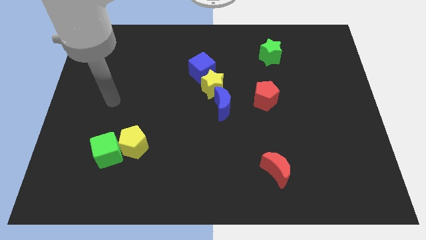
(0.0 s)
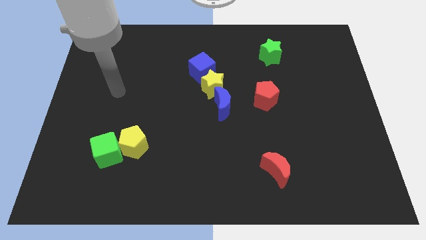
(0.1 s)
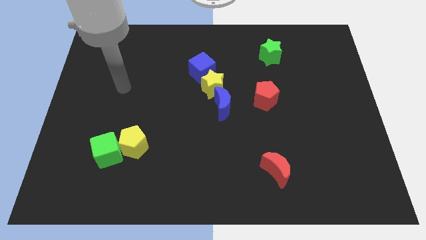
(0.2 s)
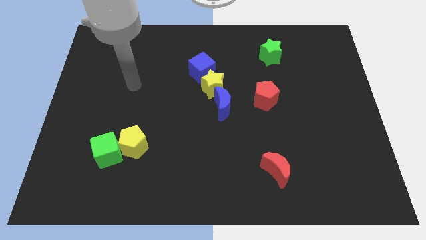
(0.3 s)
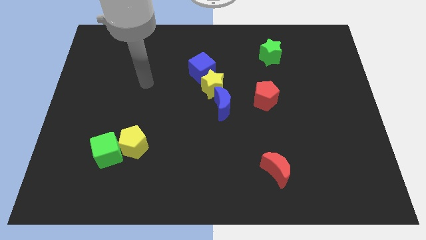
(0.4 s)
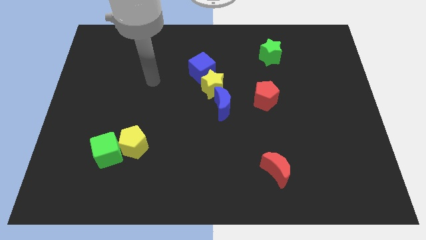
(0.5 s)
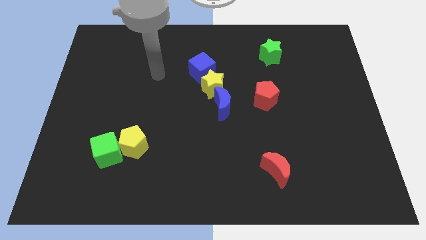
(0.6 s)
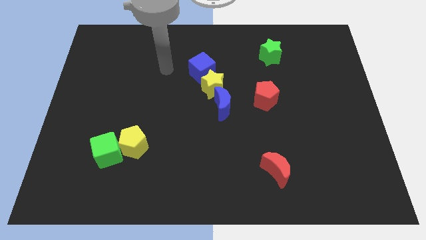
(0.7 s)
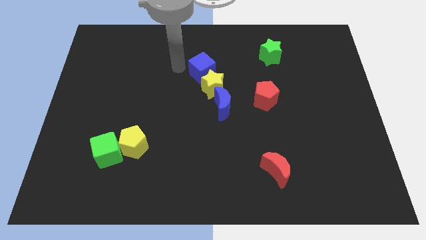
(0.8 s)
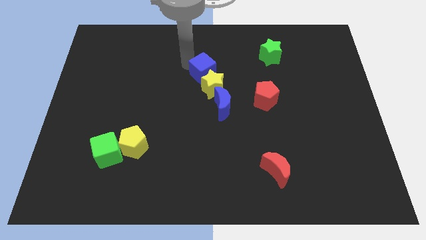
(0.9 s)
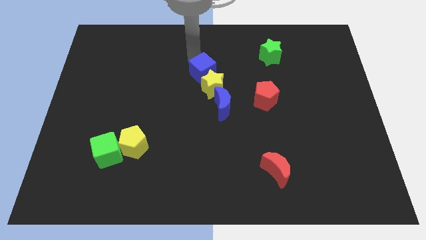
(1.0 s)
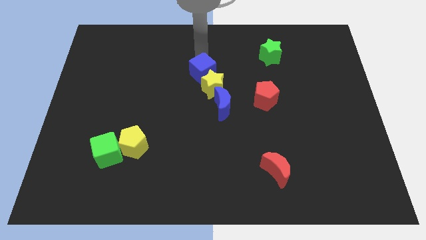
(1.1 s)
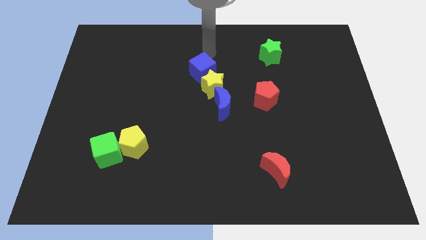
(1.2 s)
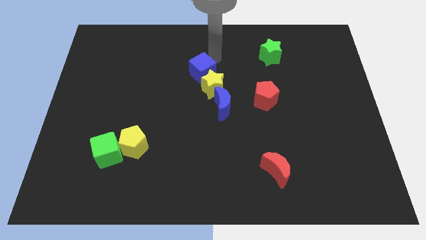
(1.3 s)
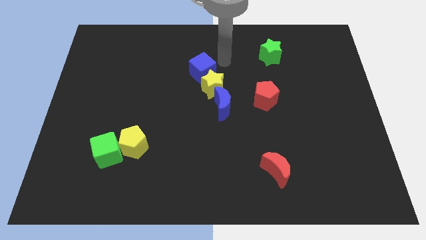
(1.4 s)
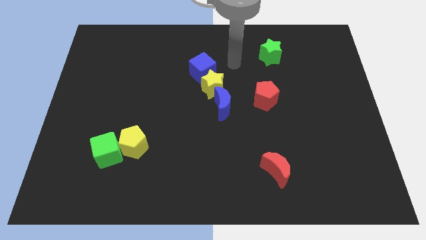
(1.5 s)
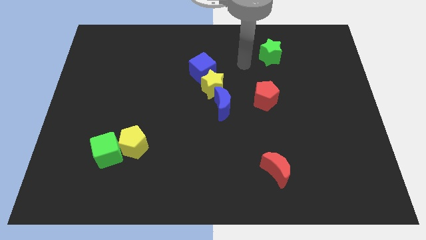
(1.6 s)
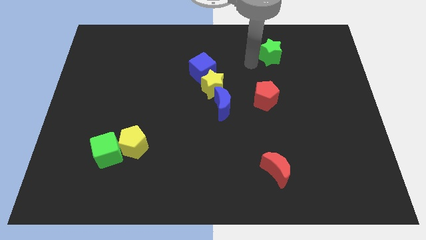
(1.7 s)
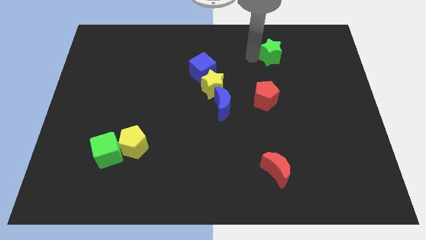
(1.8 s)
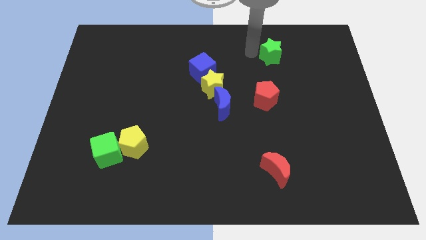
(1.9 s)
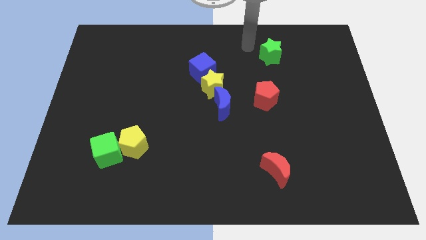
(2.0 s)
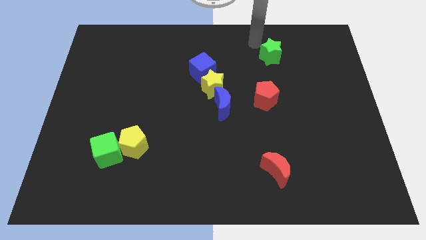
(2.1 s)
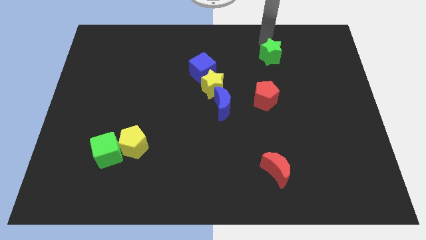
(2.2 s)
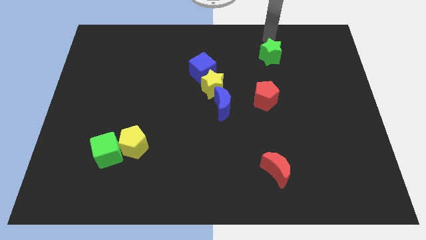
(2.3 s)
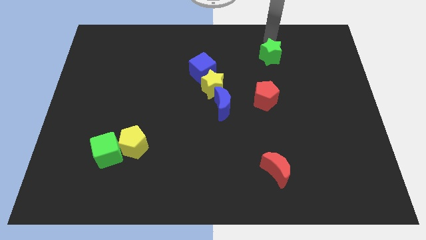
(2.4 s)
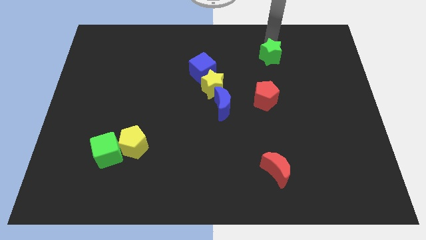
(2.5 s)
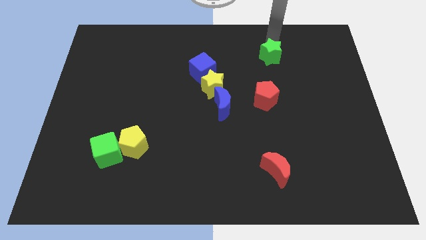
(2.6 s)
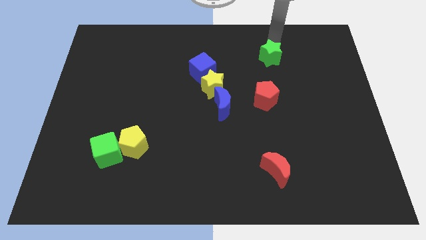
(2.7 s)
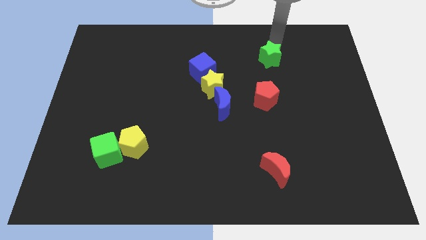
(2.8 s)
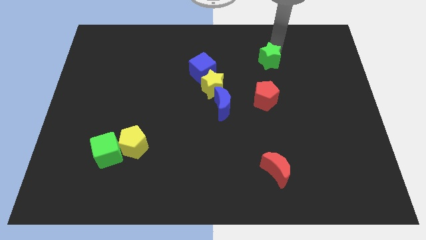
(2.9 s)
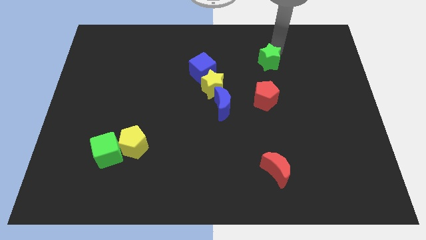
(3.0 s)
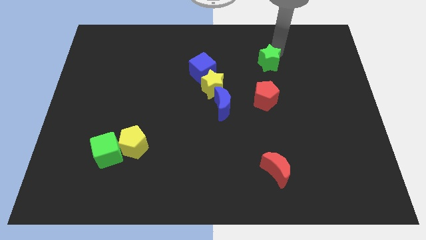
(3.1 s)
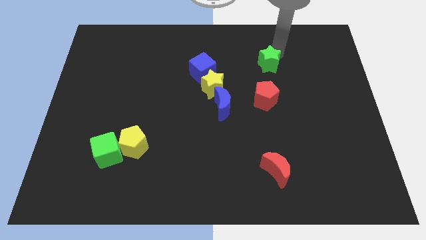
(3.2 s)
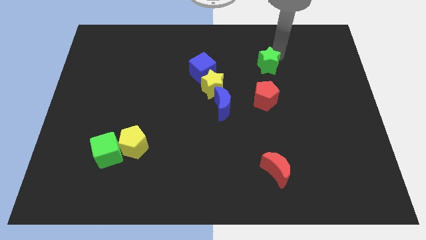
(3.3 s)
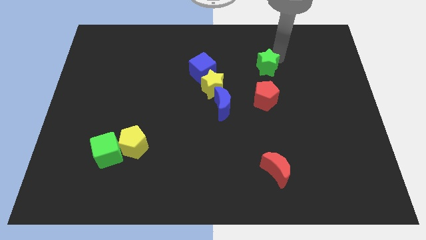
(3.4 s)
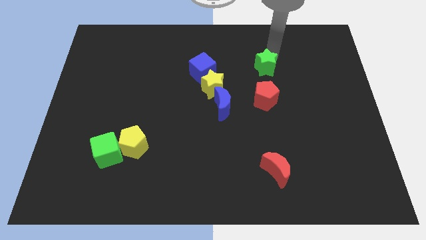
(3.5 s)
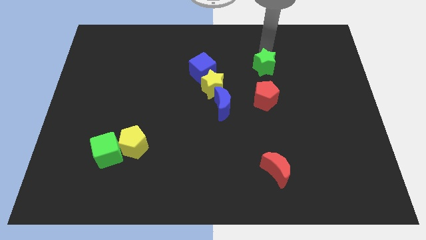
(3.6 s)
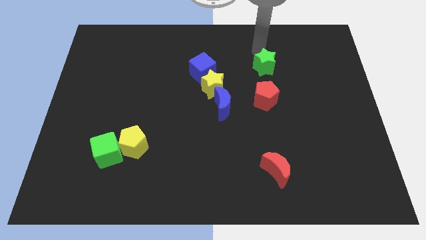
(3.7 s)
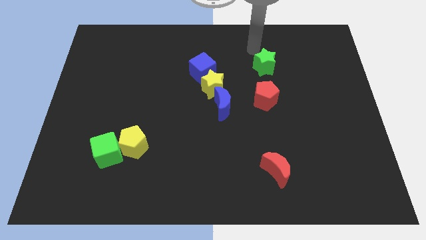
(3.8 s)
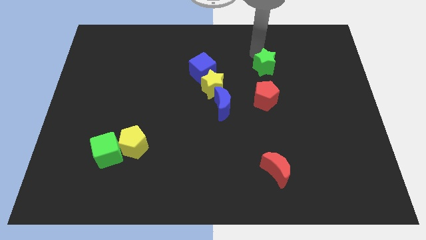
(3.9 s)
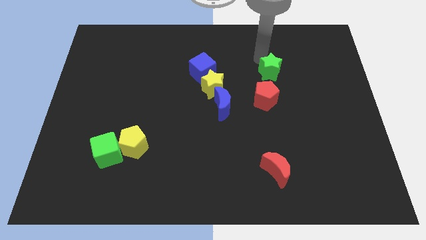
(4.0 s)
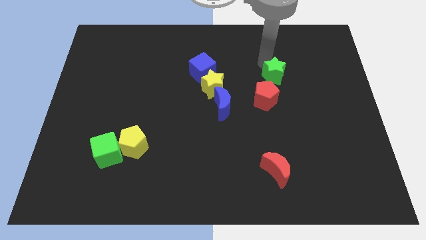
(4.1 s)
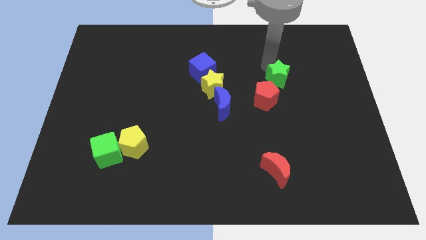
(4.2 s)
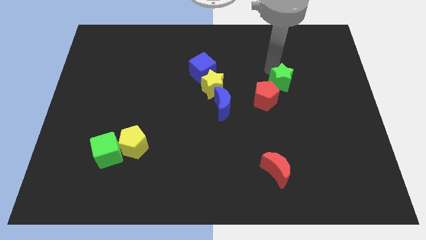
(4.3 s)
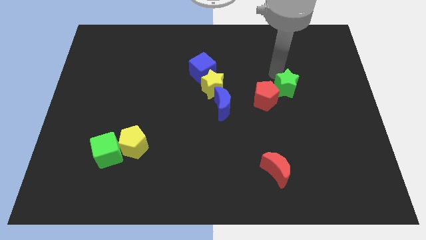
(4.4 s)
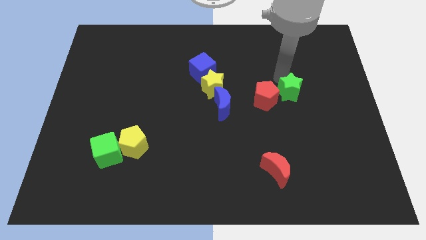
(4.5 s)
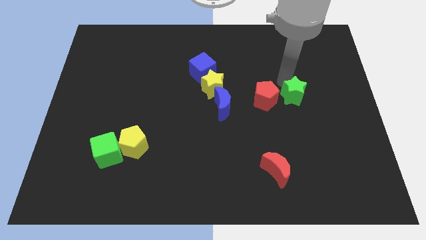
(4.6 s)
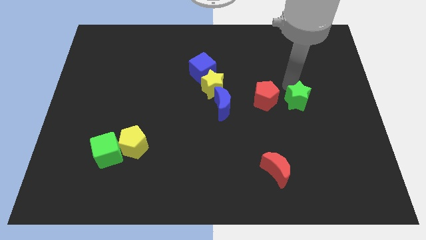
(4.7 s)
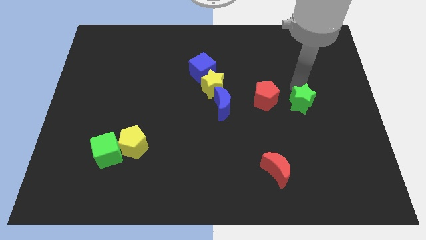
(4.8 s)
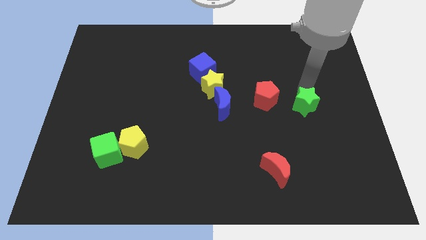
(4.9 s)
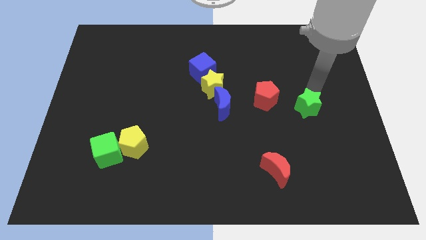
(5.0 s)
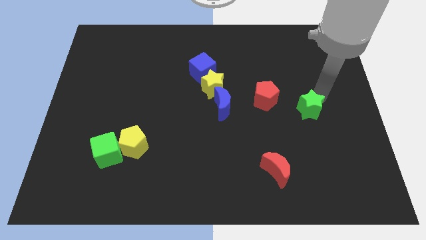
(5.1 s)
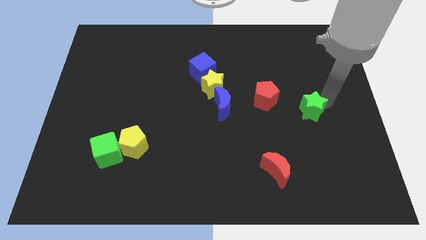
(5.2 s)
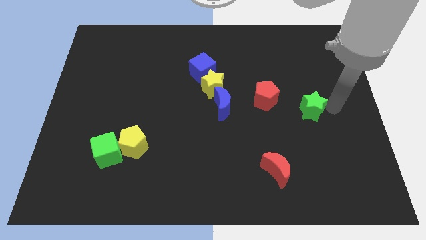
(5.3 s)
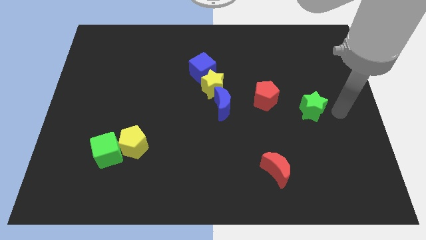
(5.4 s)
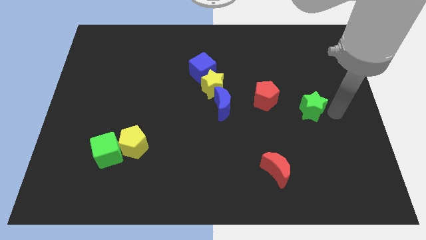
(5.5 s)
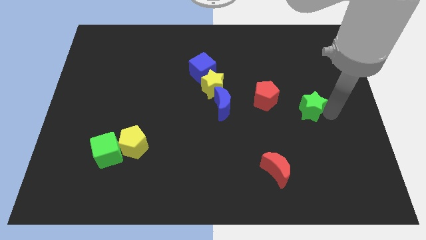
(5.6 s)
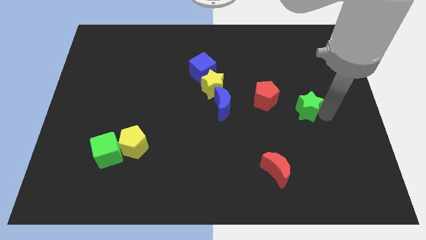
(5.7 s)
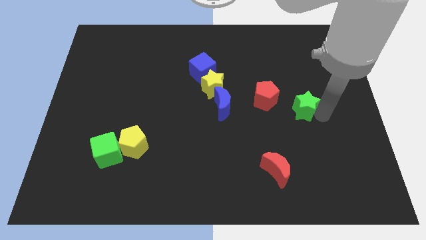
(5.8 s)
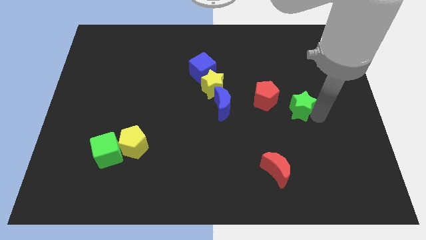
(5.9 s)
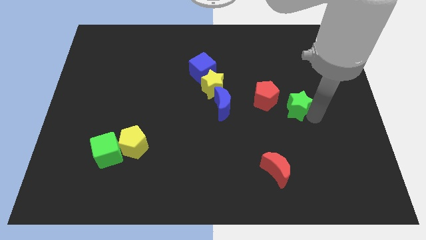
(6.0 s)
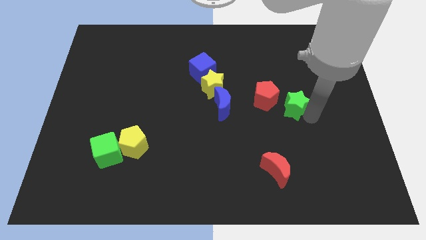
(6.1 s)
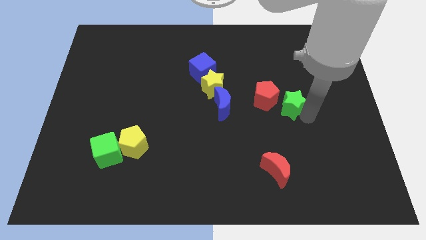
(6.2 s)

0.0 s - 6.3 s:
push the green star just right of the blue moon
